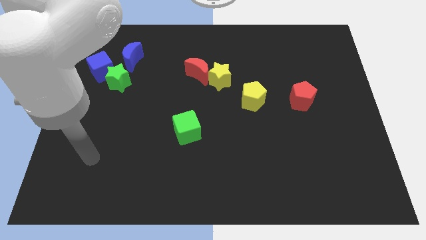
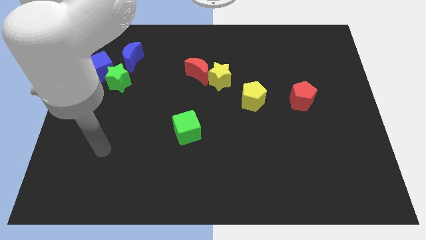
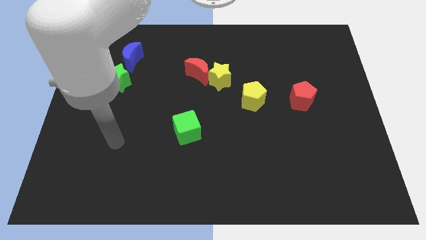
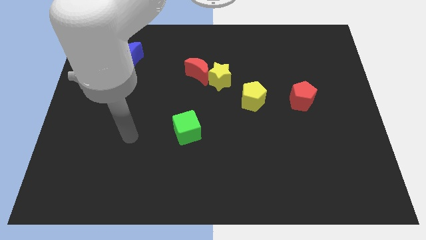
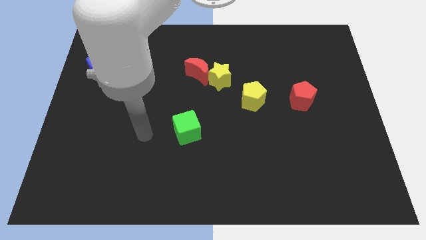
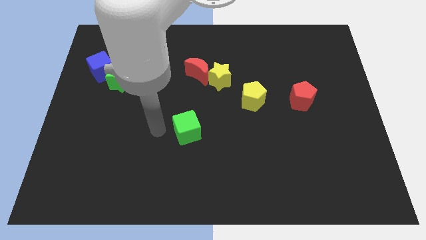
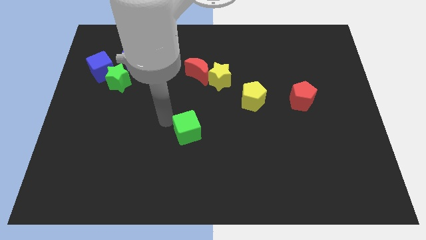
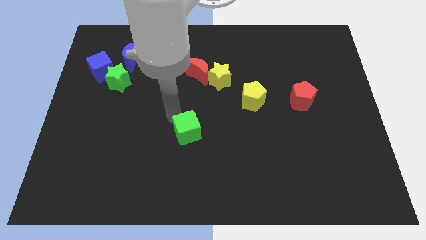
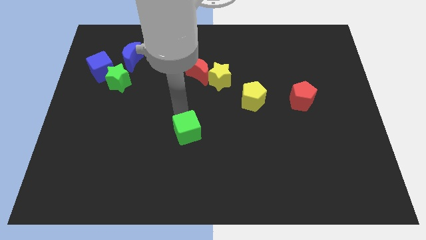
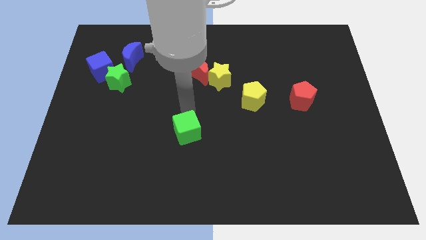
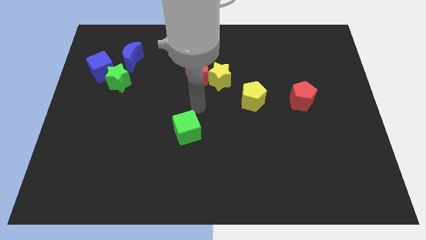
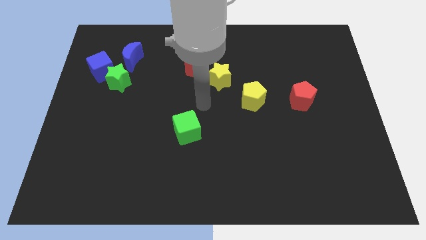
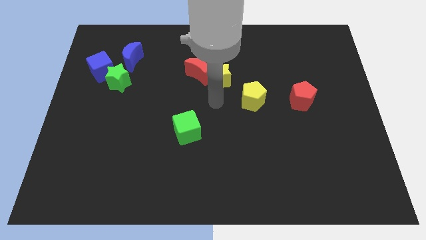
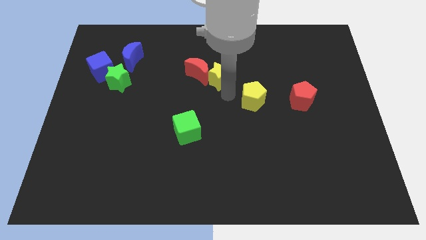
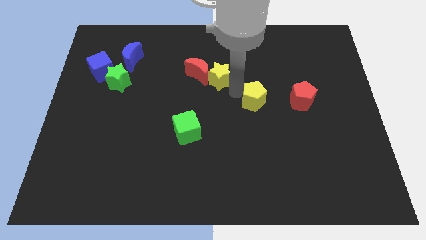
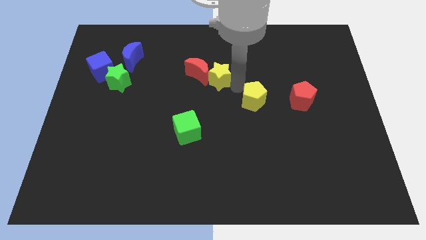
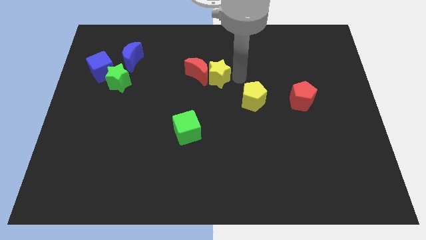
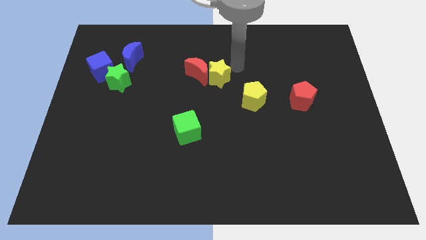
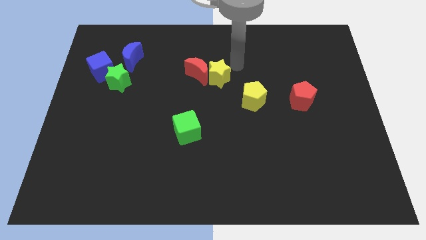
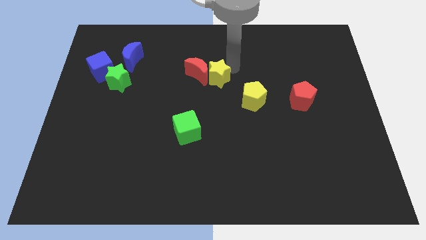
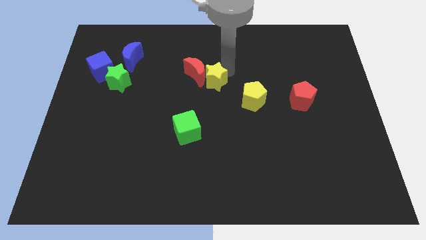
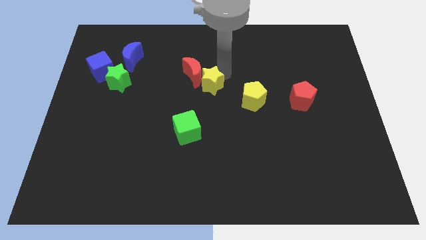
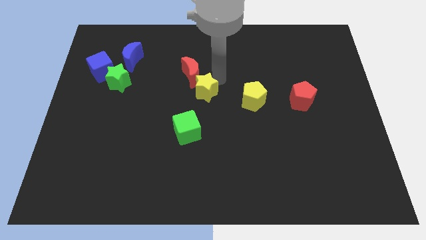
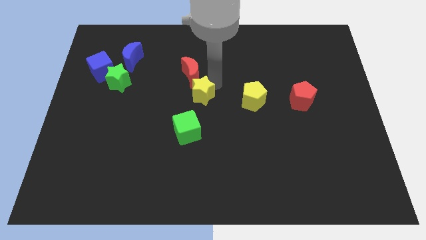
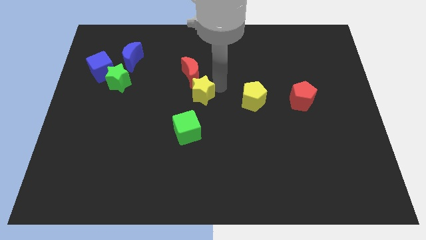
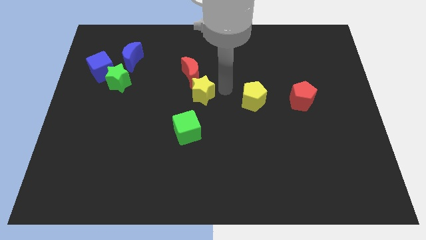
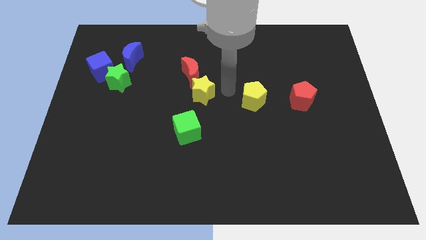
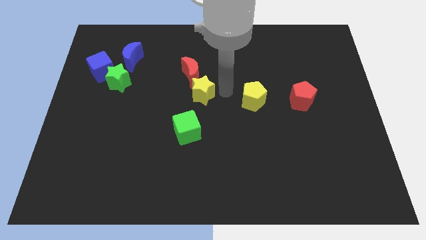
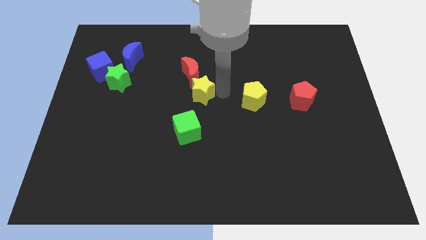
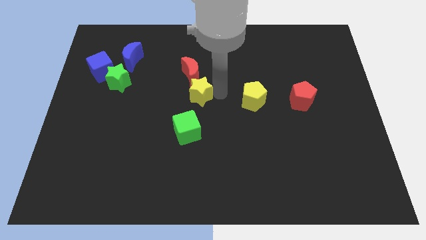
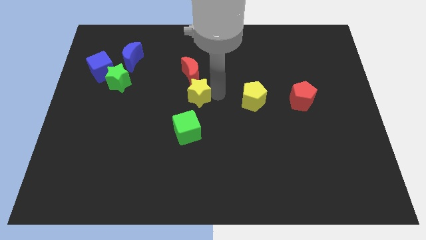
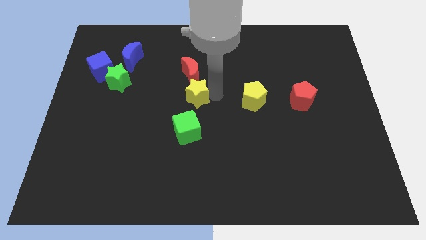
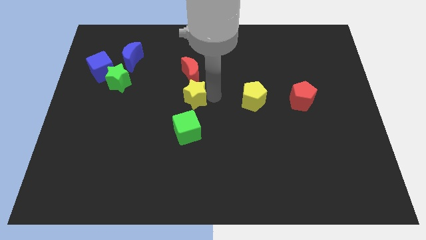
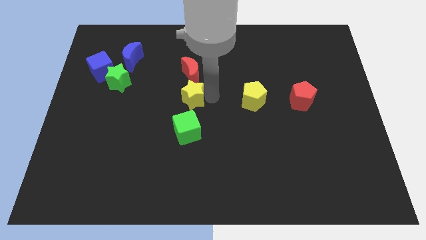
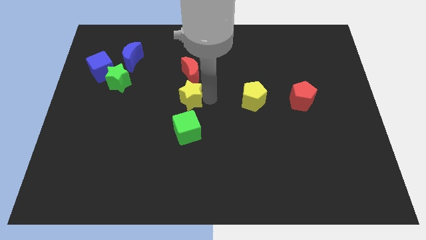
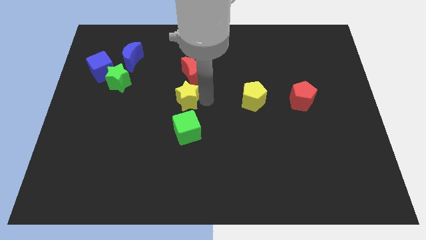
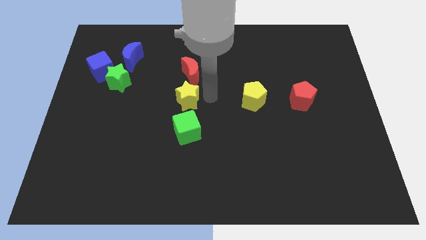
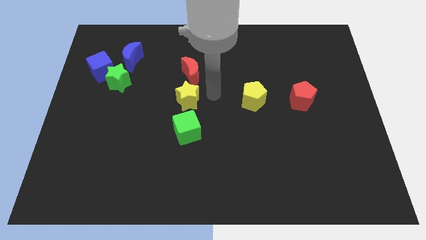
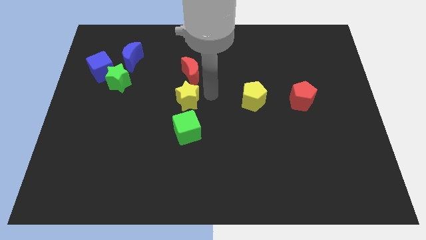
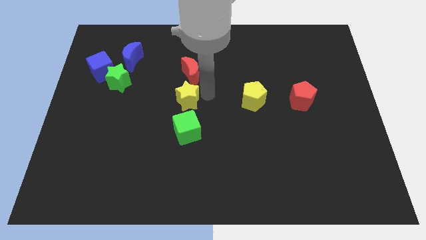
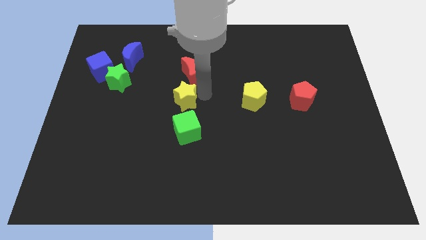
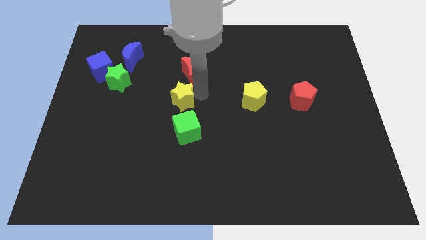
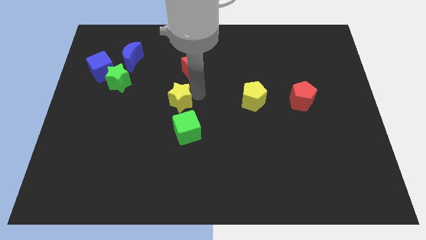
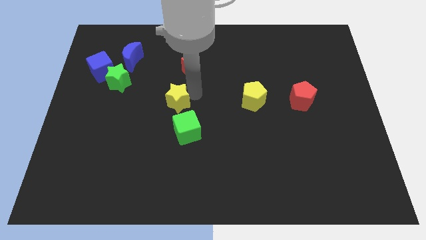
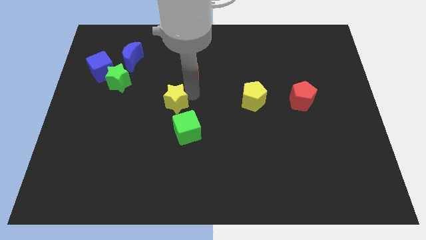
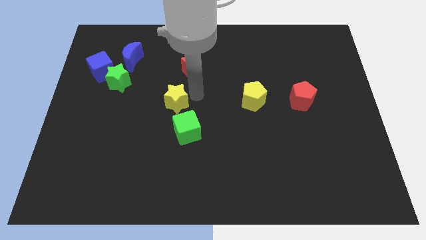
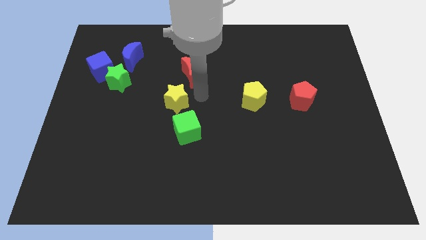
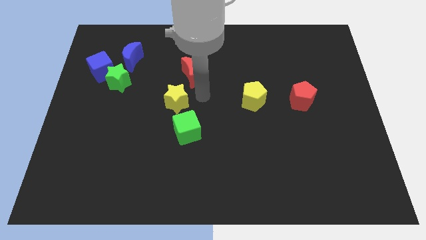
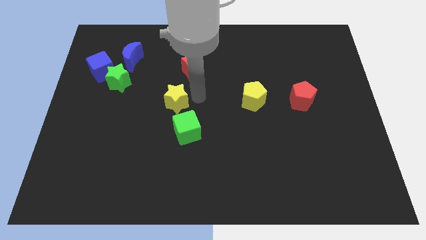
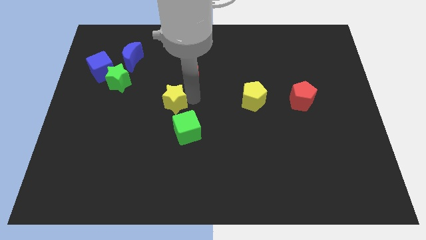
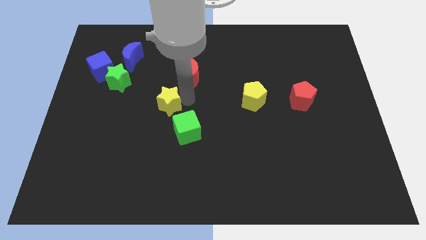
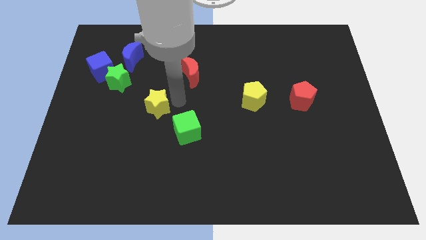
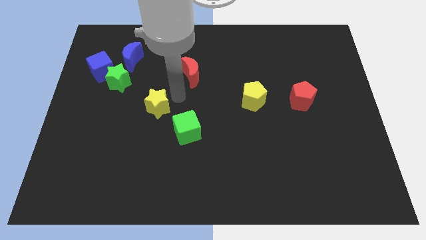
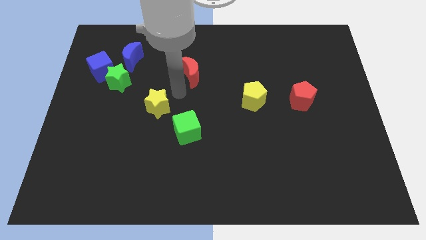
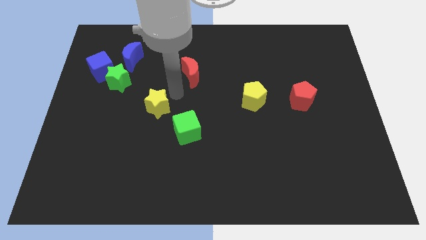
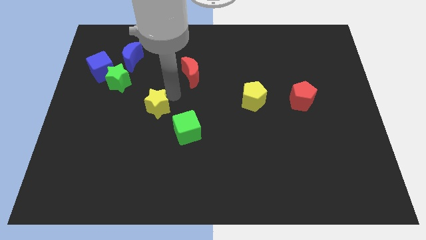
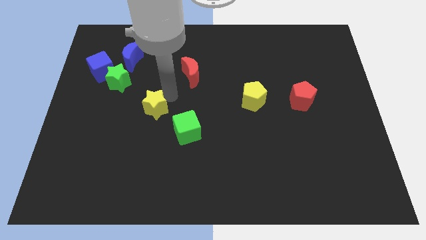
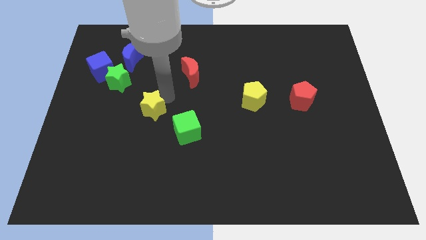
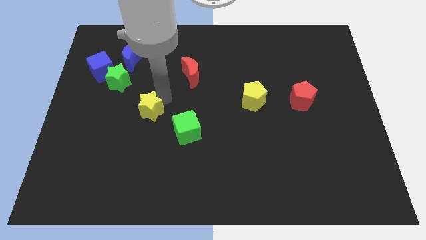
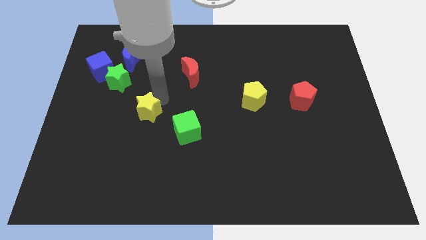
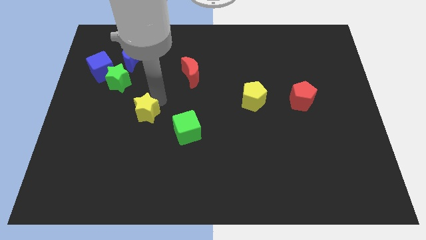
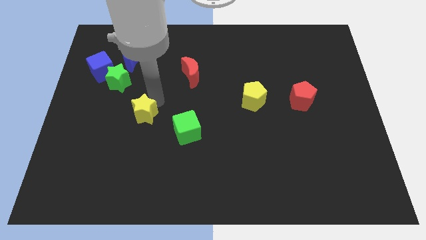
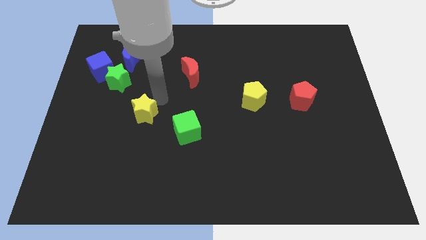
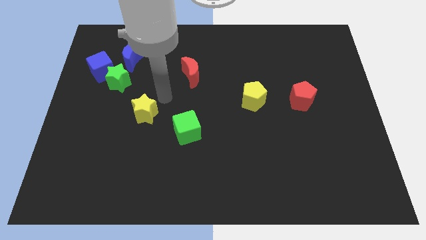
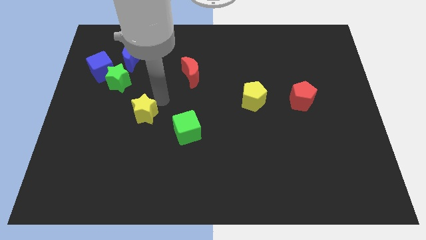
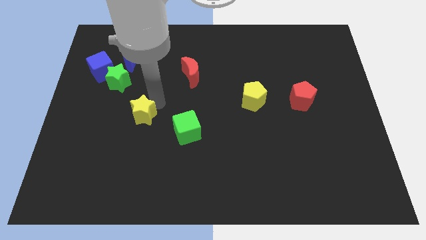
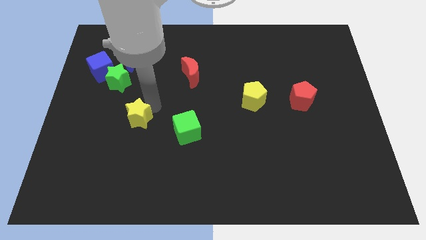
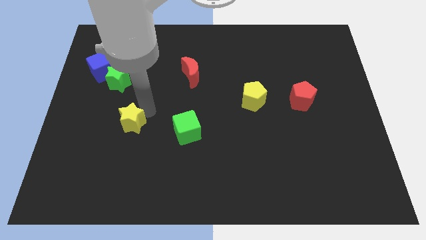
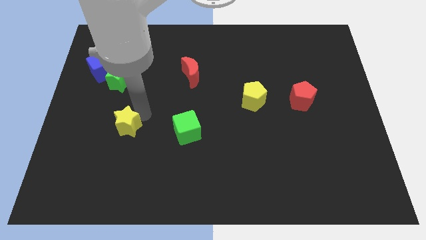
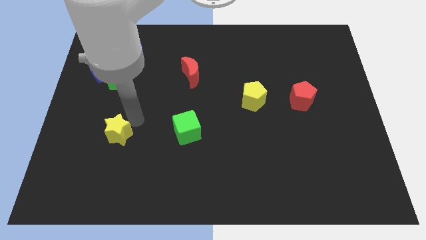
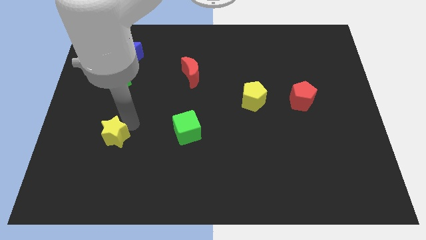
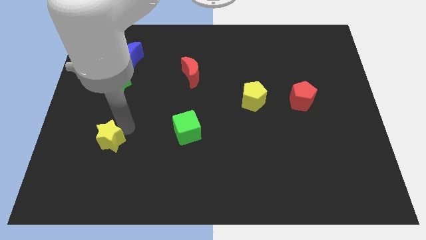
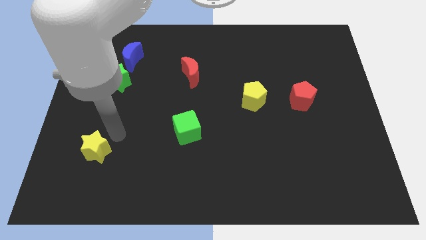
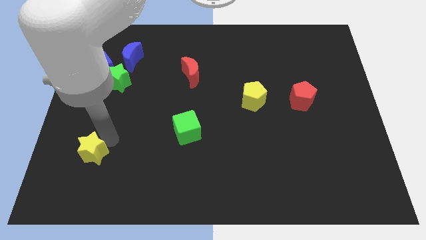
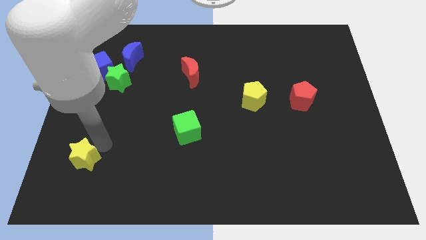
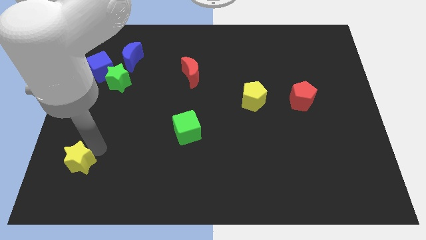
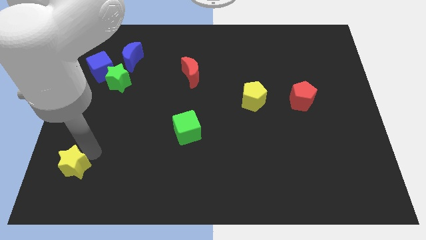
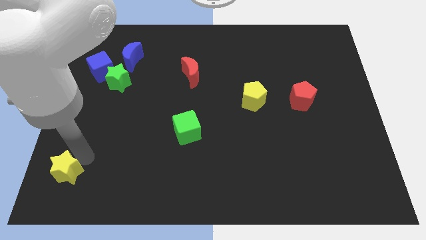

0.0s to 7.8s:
move the yellow star to the bottom left
